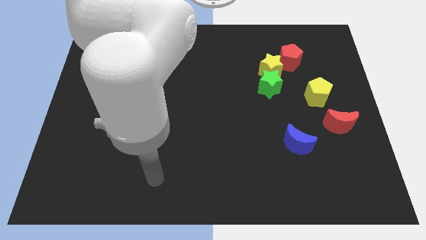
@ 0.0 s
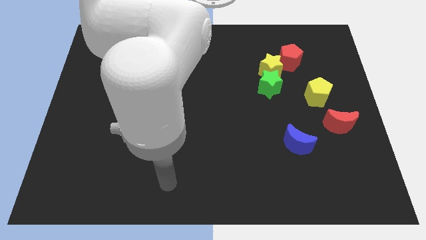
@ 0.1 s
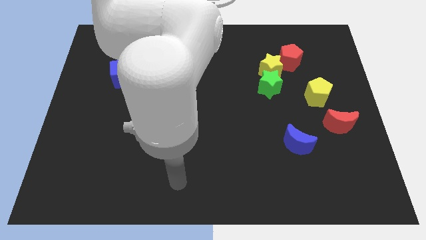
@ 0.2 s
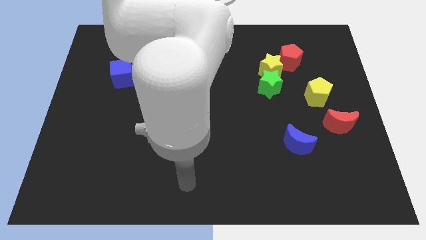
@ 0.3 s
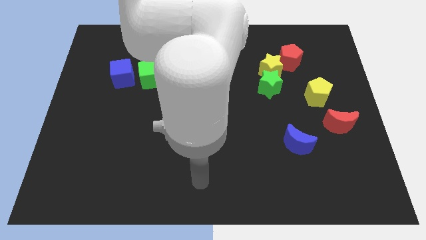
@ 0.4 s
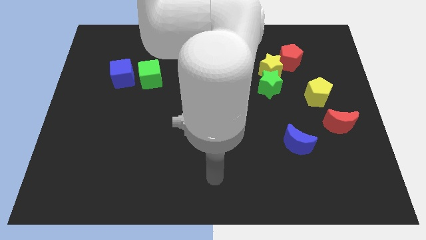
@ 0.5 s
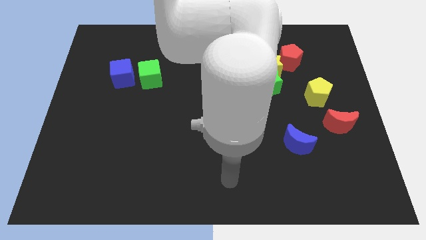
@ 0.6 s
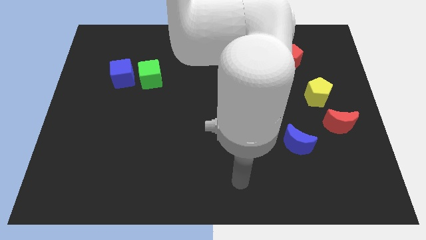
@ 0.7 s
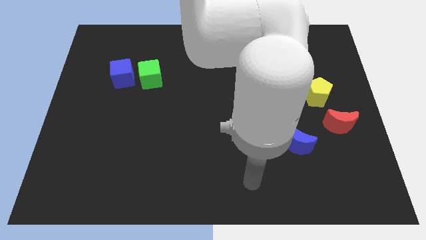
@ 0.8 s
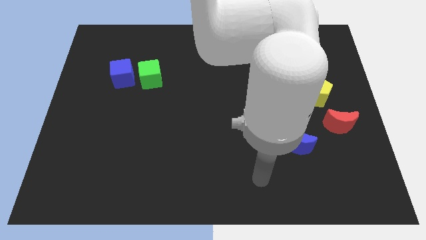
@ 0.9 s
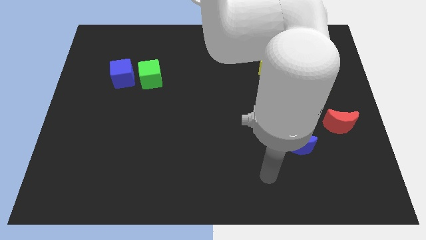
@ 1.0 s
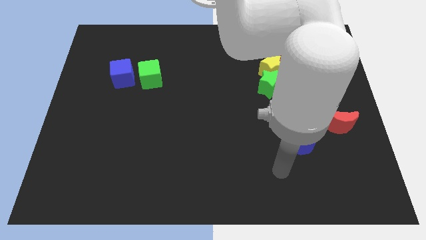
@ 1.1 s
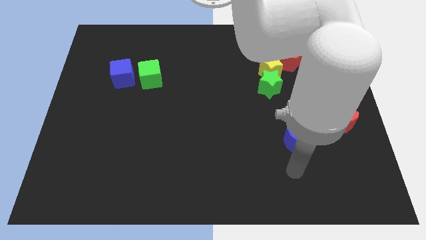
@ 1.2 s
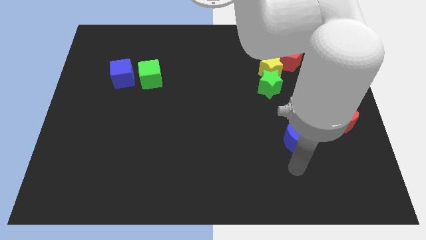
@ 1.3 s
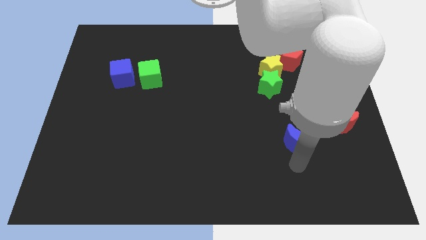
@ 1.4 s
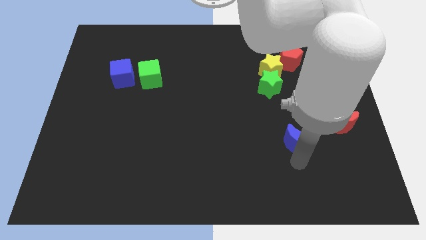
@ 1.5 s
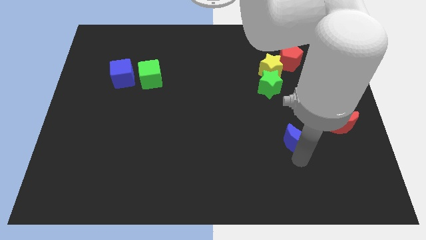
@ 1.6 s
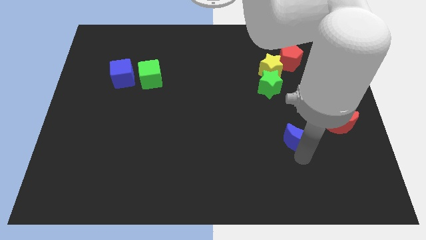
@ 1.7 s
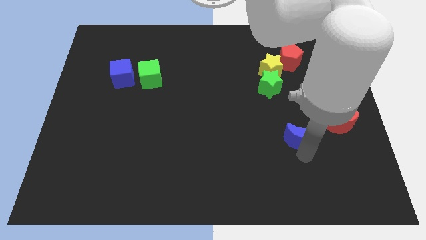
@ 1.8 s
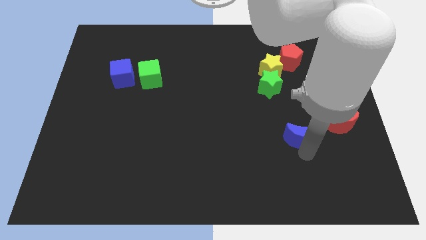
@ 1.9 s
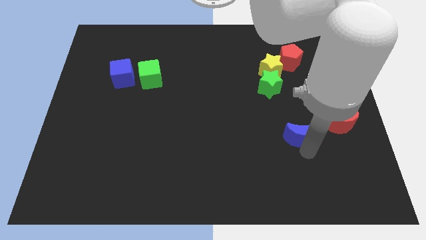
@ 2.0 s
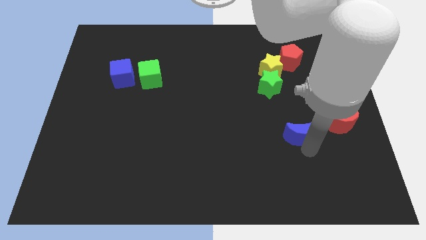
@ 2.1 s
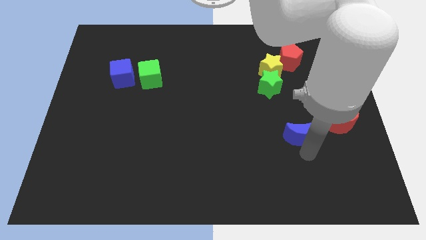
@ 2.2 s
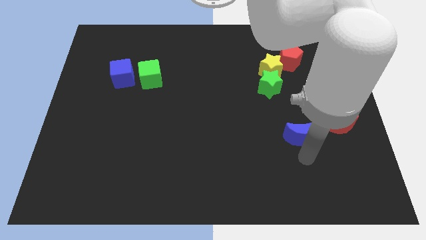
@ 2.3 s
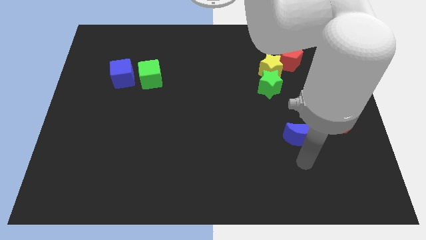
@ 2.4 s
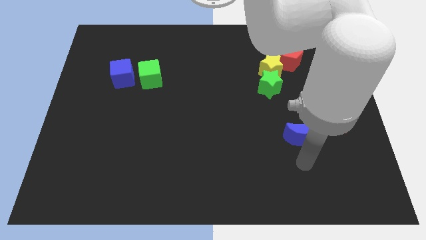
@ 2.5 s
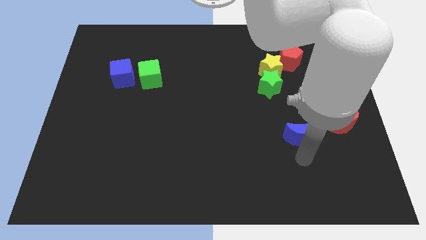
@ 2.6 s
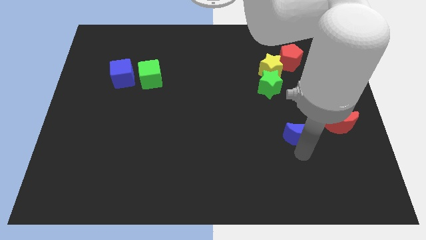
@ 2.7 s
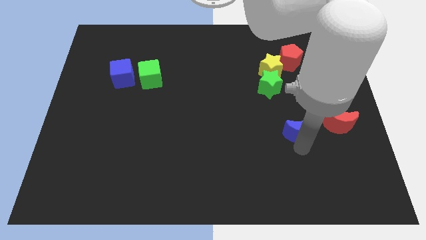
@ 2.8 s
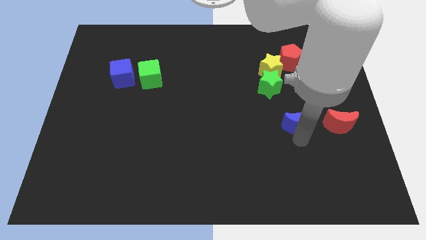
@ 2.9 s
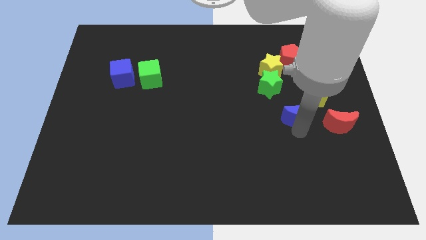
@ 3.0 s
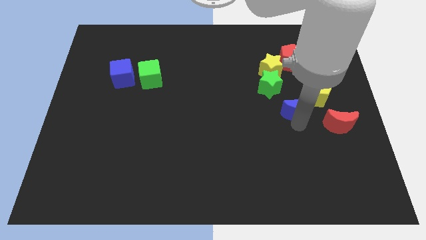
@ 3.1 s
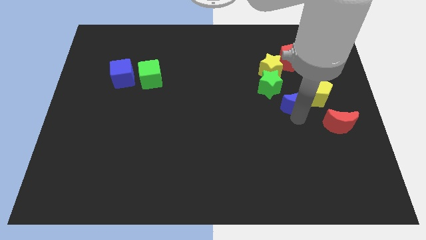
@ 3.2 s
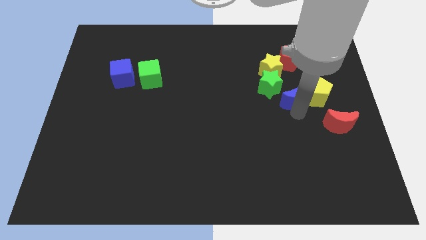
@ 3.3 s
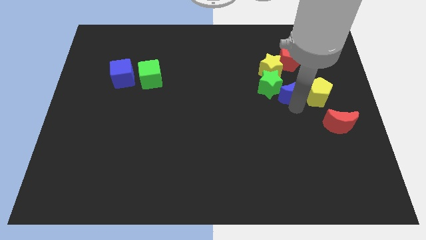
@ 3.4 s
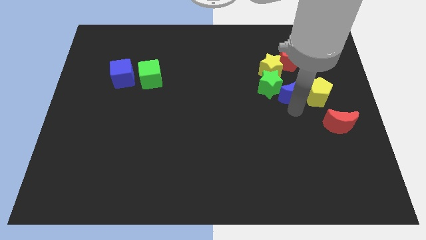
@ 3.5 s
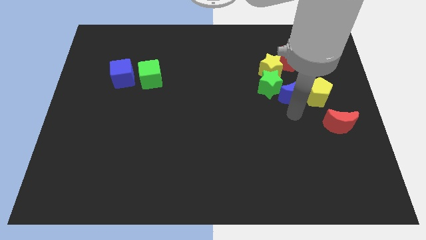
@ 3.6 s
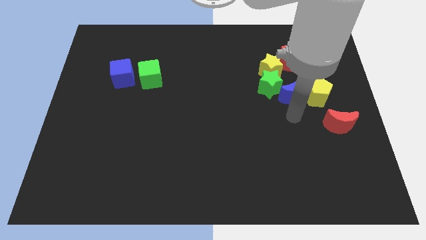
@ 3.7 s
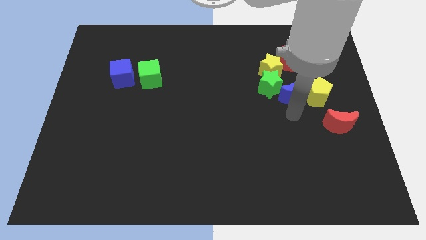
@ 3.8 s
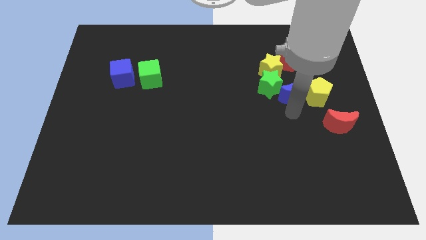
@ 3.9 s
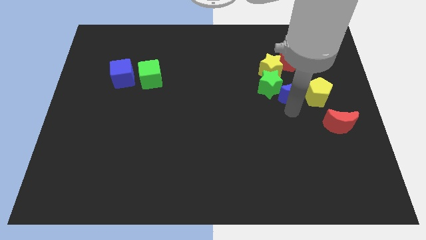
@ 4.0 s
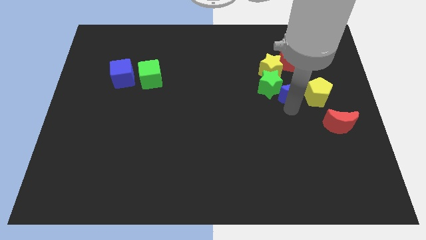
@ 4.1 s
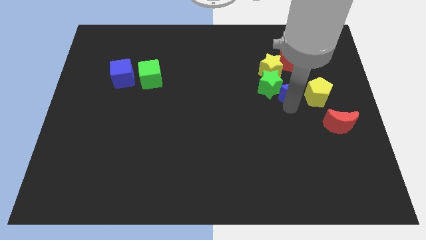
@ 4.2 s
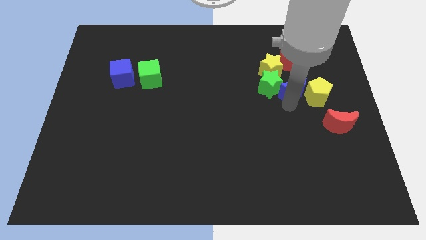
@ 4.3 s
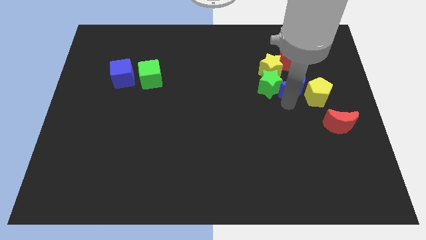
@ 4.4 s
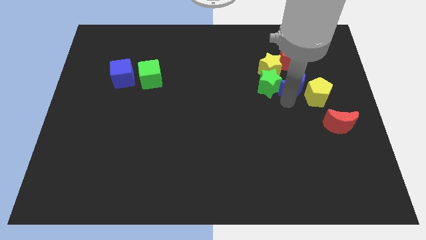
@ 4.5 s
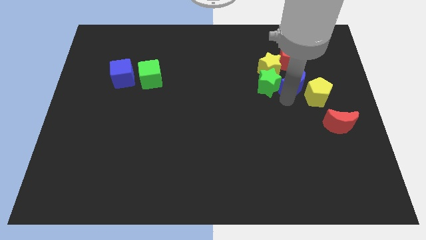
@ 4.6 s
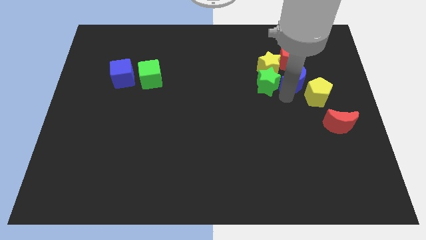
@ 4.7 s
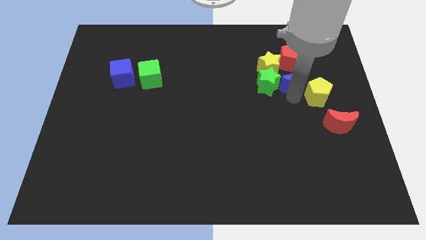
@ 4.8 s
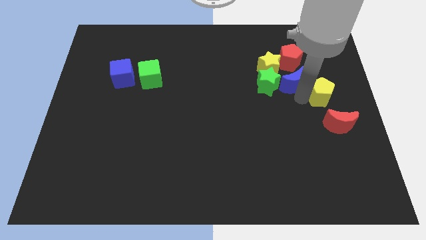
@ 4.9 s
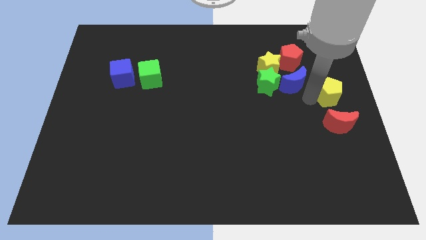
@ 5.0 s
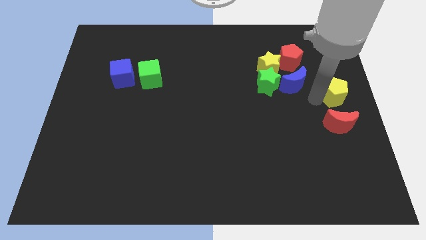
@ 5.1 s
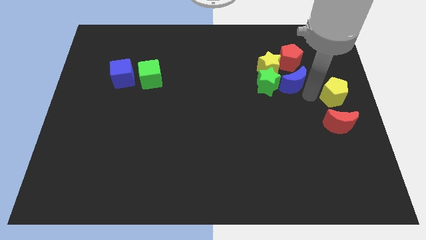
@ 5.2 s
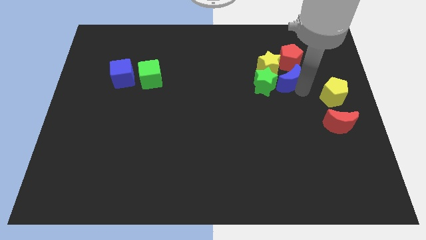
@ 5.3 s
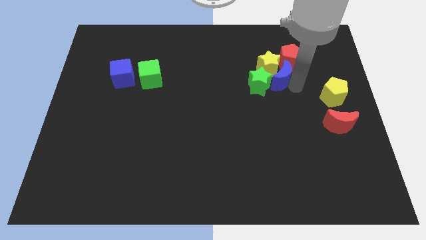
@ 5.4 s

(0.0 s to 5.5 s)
push the blue moon to the yellow star

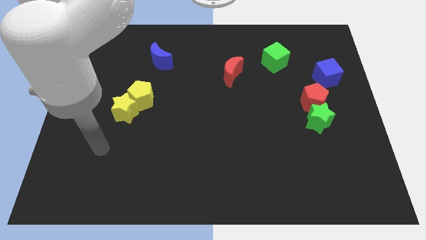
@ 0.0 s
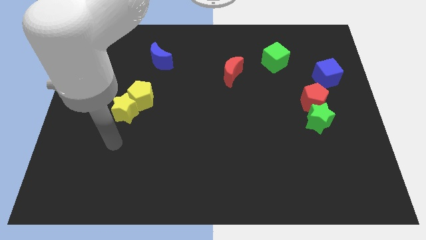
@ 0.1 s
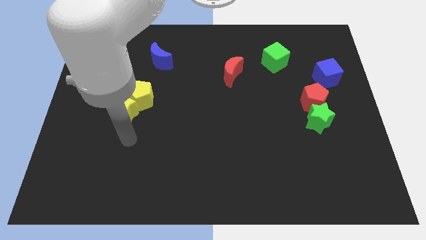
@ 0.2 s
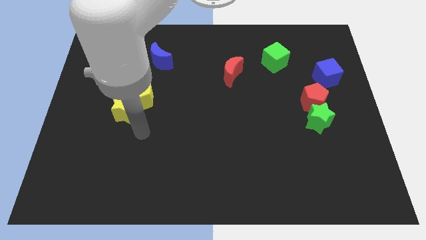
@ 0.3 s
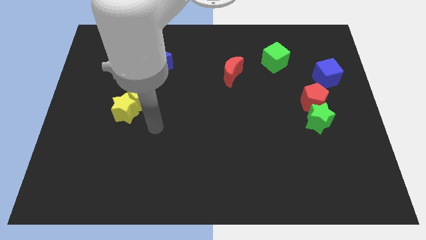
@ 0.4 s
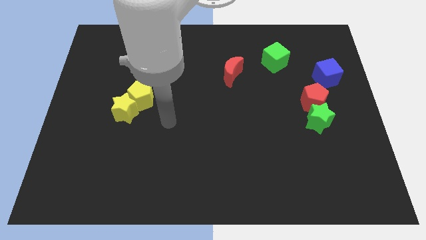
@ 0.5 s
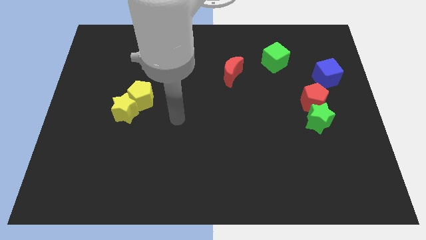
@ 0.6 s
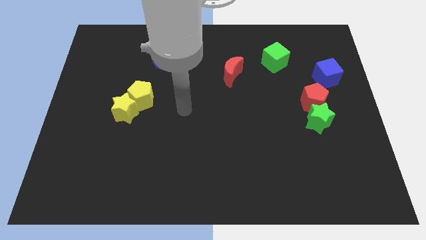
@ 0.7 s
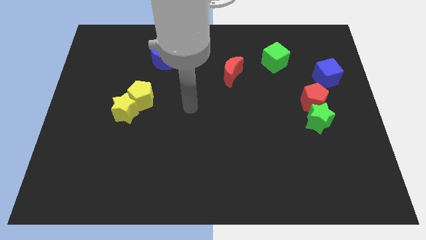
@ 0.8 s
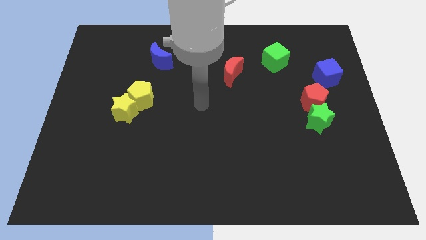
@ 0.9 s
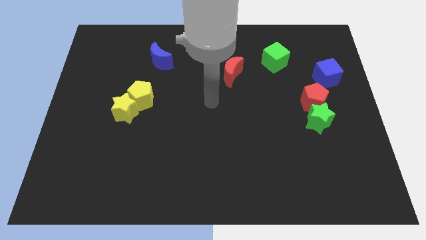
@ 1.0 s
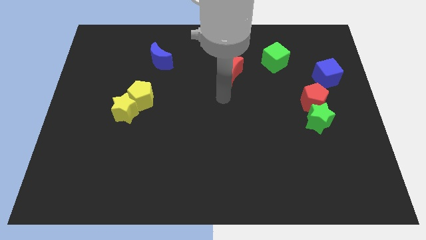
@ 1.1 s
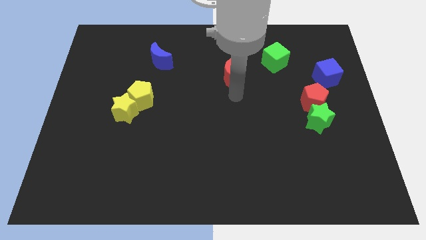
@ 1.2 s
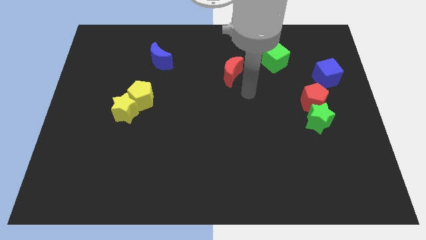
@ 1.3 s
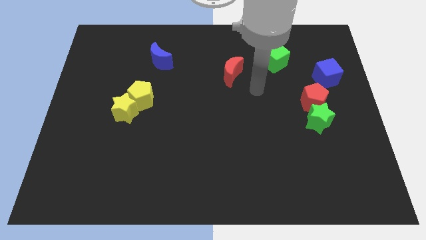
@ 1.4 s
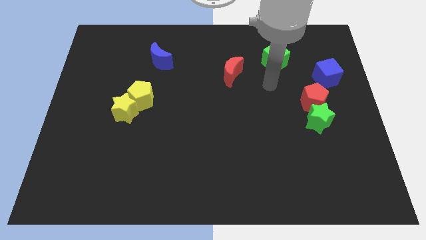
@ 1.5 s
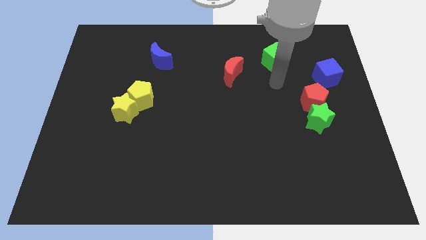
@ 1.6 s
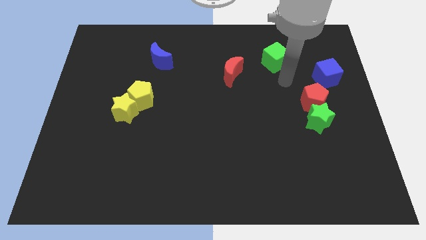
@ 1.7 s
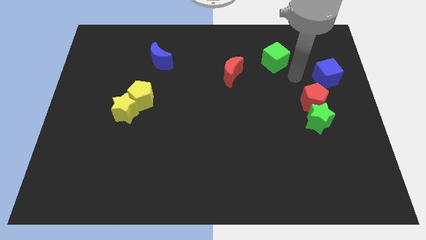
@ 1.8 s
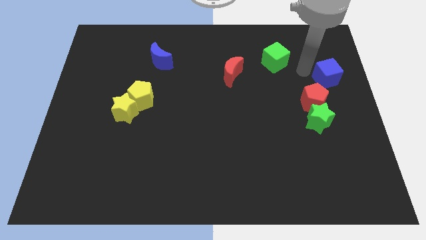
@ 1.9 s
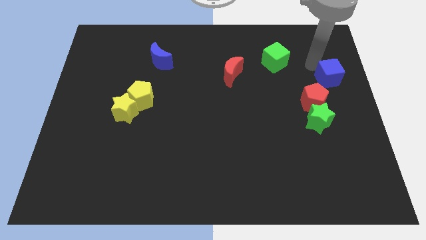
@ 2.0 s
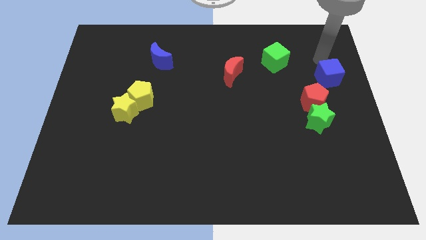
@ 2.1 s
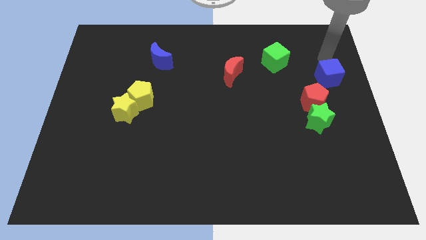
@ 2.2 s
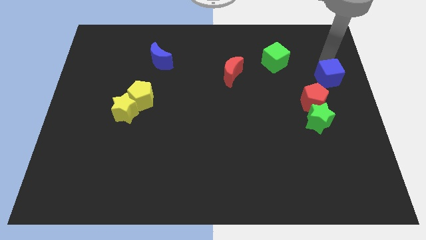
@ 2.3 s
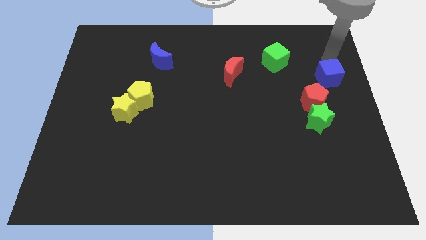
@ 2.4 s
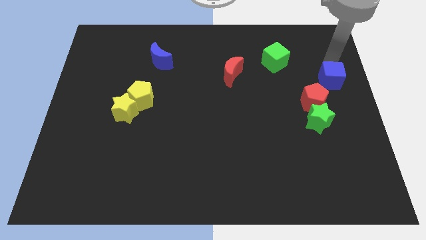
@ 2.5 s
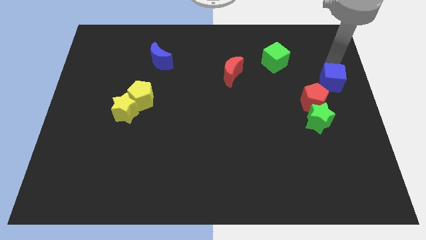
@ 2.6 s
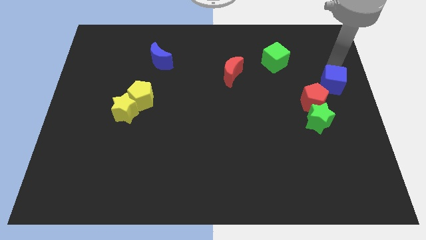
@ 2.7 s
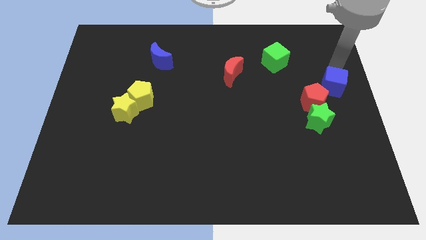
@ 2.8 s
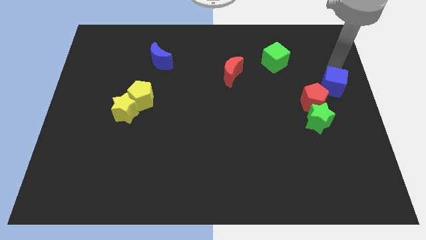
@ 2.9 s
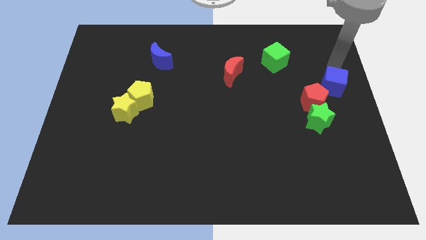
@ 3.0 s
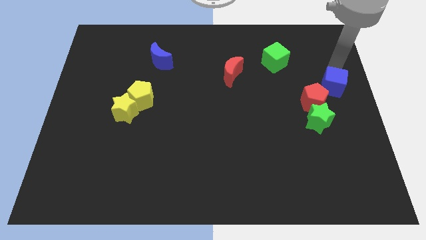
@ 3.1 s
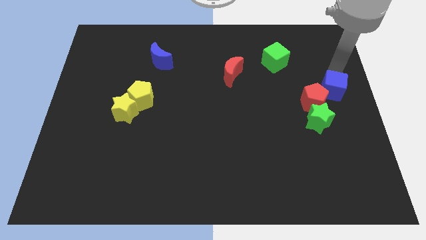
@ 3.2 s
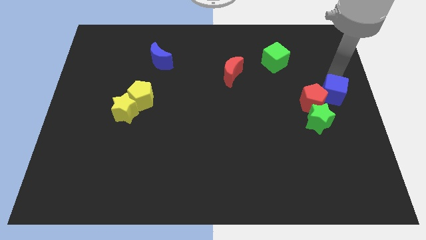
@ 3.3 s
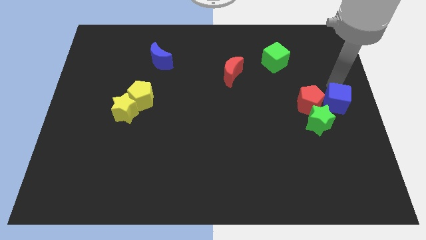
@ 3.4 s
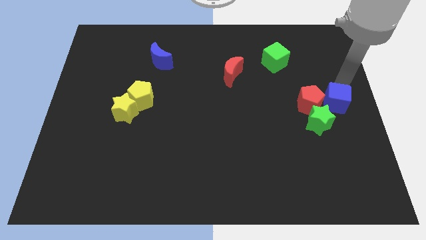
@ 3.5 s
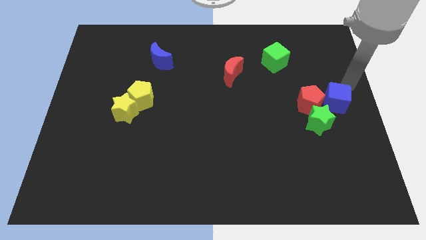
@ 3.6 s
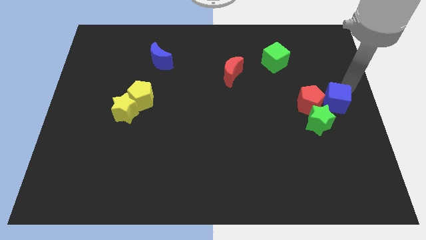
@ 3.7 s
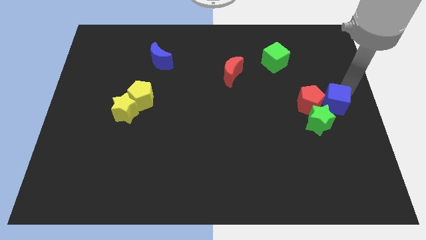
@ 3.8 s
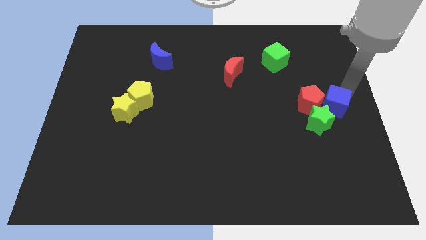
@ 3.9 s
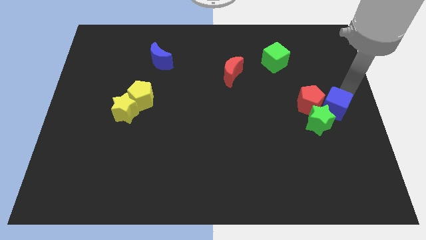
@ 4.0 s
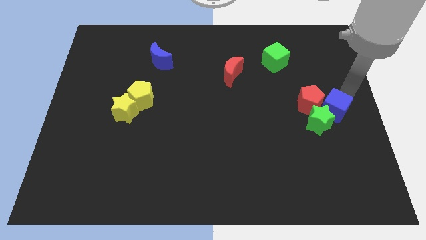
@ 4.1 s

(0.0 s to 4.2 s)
slide the blue cube close to the green star
